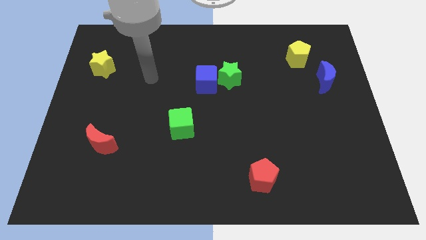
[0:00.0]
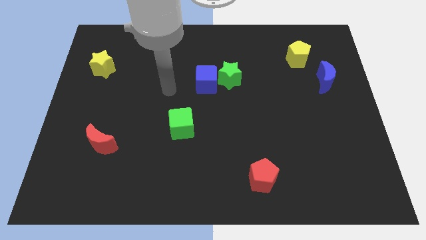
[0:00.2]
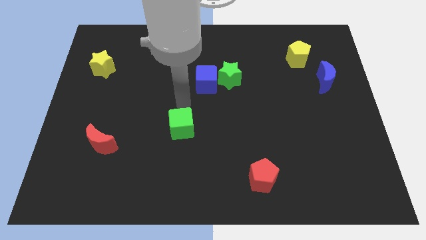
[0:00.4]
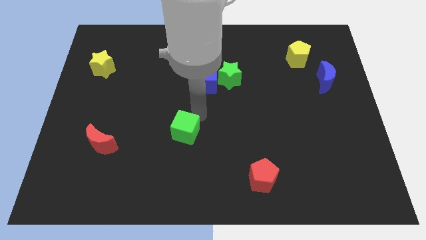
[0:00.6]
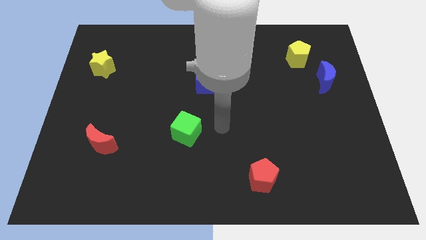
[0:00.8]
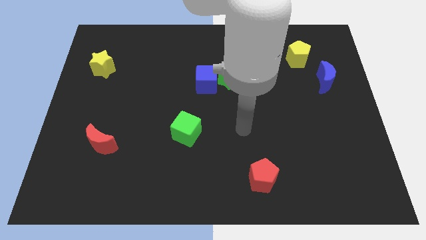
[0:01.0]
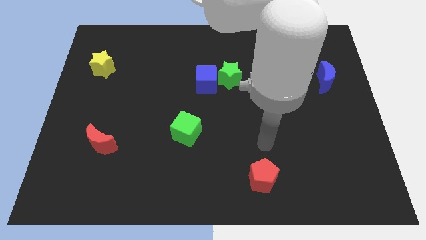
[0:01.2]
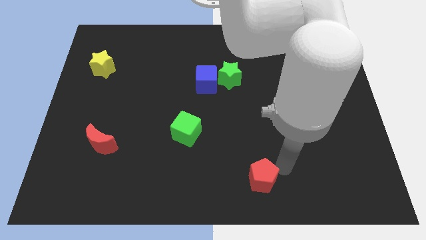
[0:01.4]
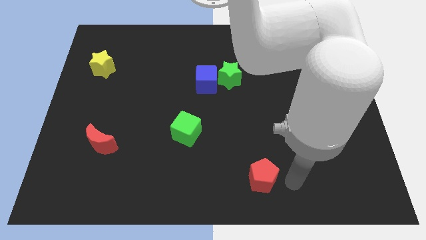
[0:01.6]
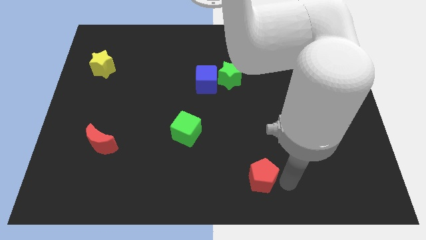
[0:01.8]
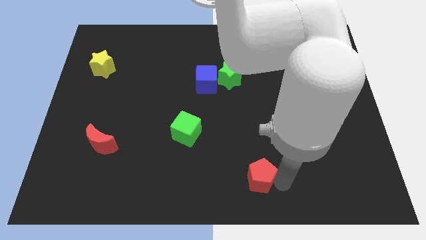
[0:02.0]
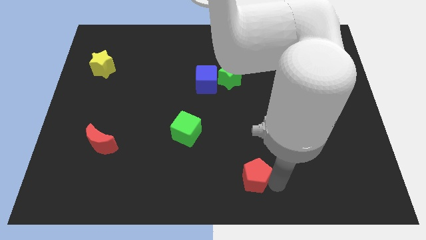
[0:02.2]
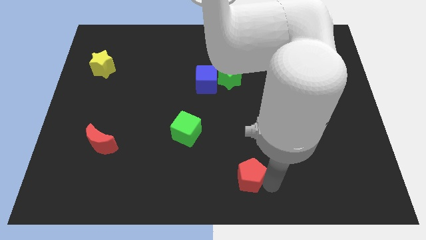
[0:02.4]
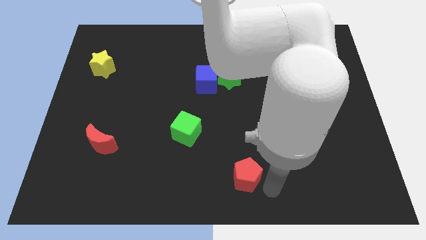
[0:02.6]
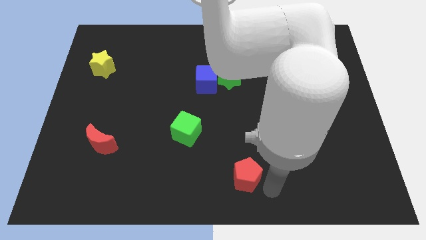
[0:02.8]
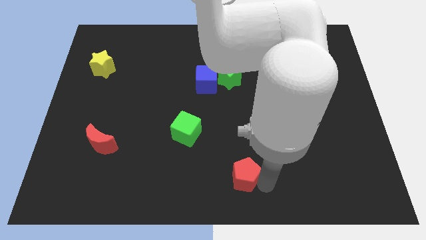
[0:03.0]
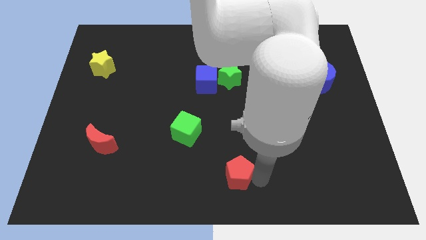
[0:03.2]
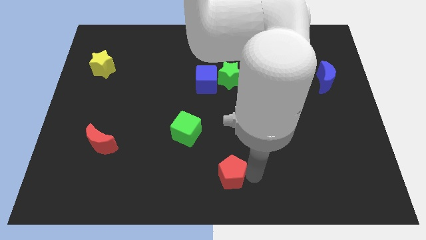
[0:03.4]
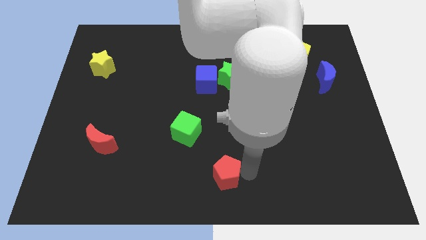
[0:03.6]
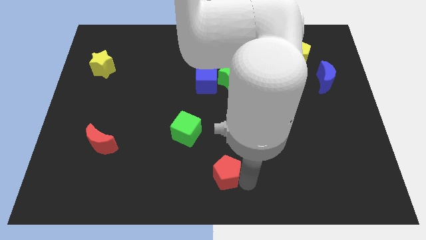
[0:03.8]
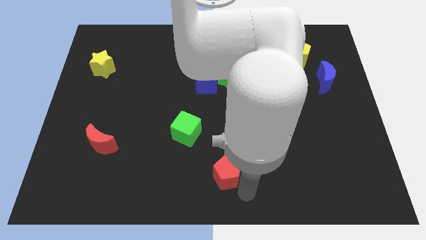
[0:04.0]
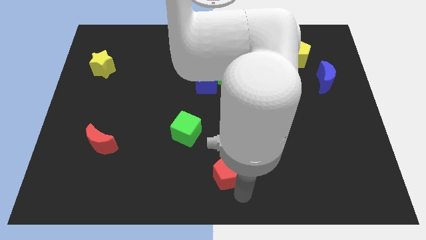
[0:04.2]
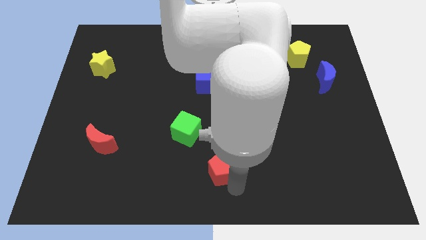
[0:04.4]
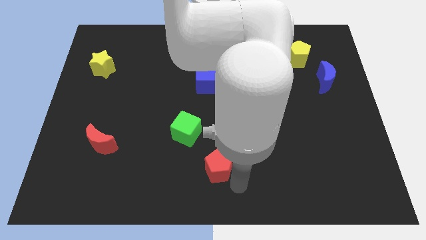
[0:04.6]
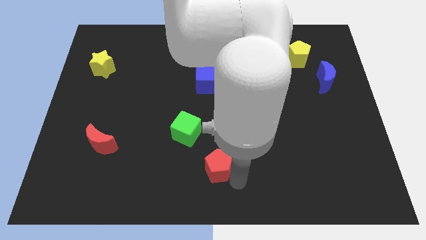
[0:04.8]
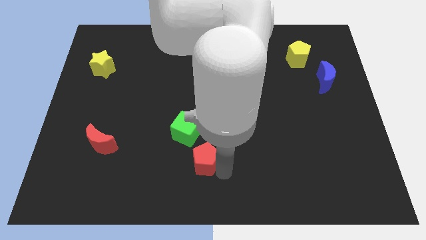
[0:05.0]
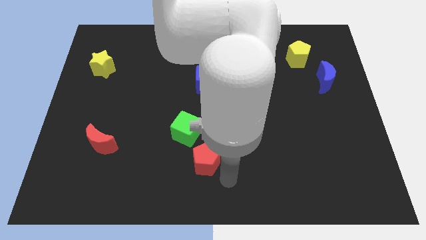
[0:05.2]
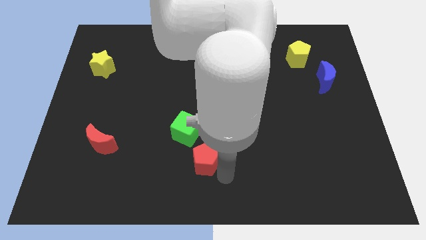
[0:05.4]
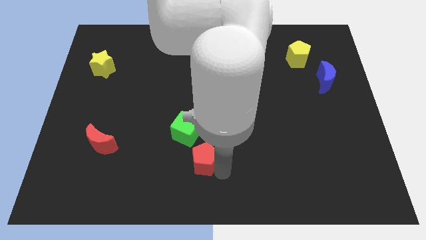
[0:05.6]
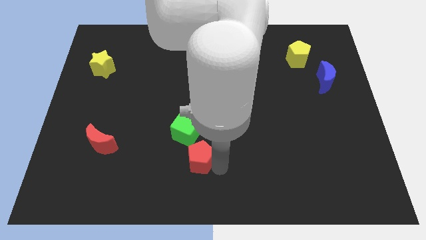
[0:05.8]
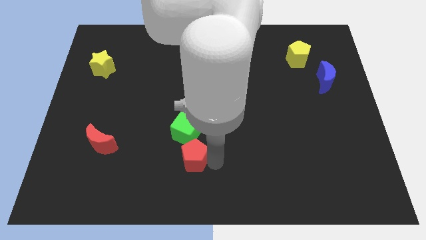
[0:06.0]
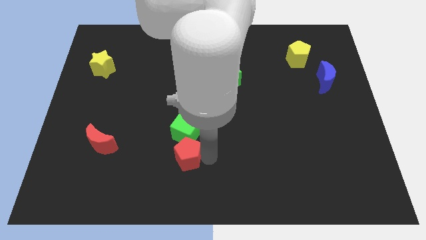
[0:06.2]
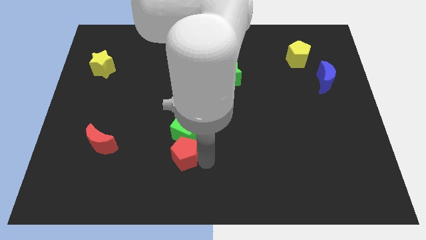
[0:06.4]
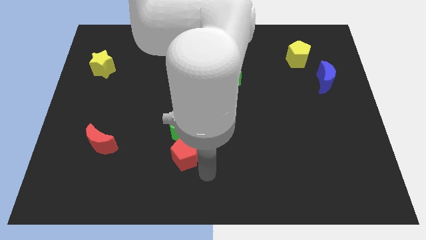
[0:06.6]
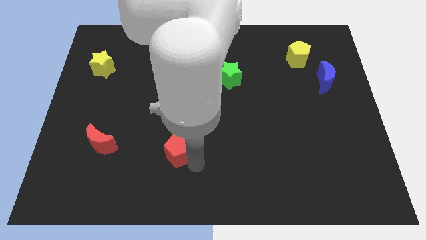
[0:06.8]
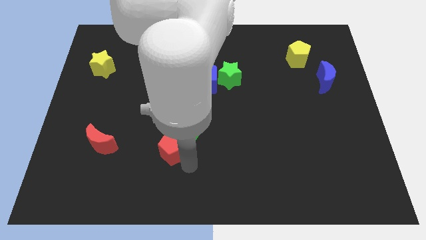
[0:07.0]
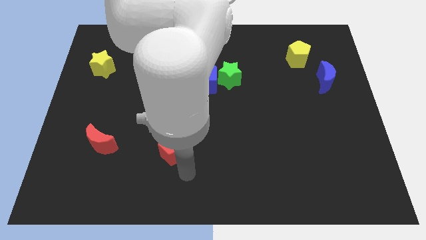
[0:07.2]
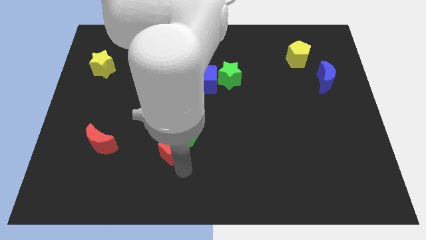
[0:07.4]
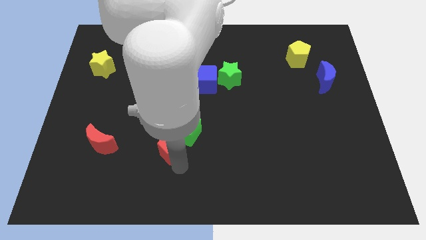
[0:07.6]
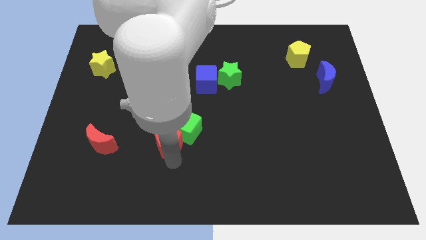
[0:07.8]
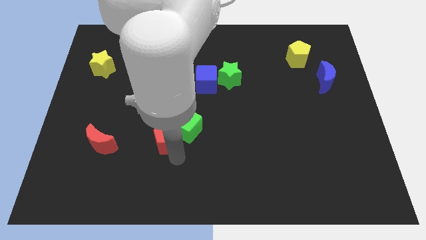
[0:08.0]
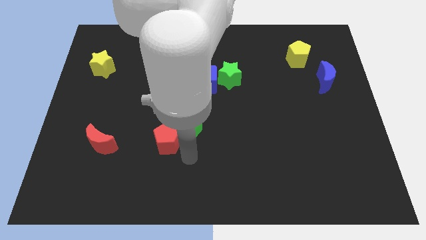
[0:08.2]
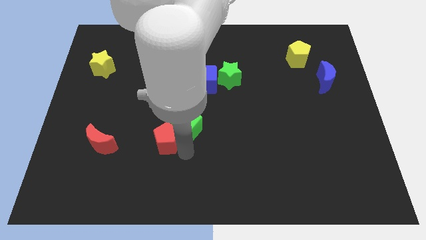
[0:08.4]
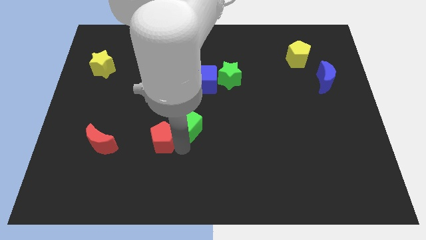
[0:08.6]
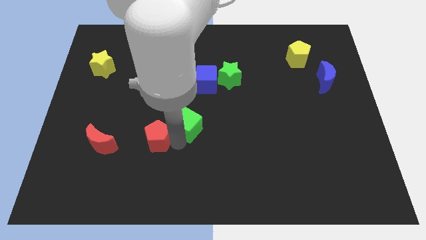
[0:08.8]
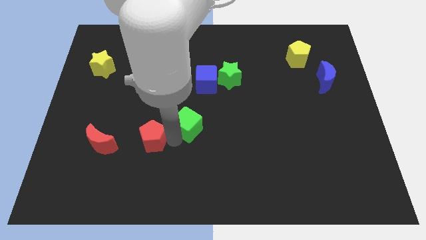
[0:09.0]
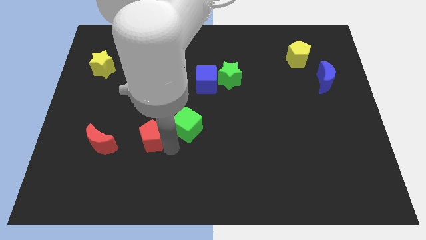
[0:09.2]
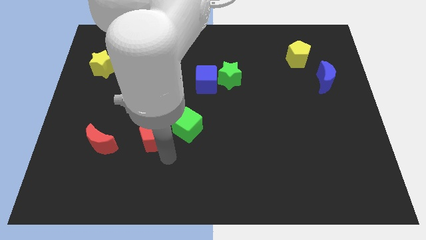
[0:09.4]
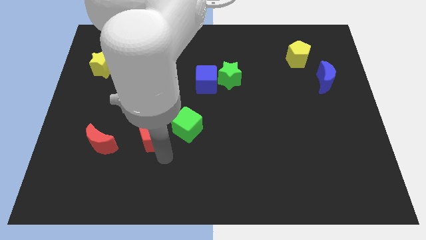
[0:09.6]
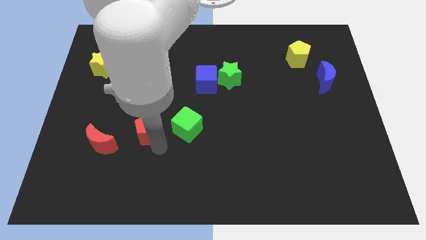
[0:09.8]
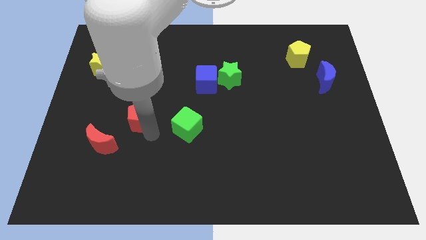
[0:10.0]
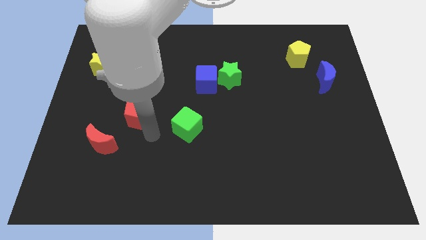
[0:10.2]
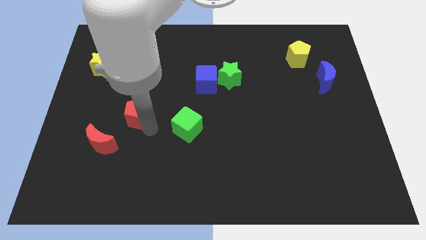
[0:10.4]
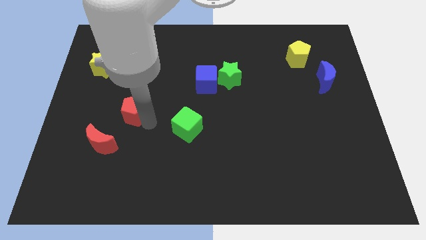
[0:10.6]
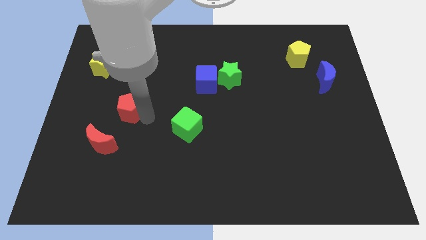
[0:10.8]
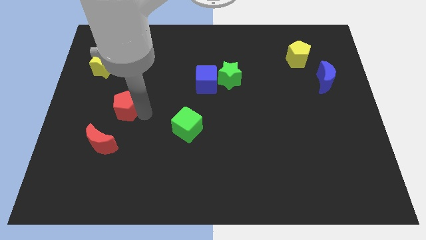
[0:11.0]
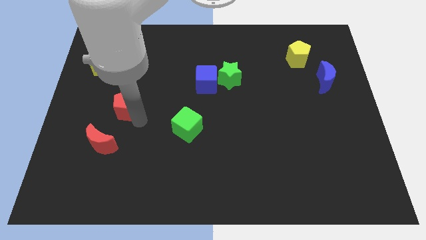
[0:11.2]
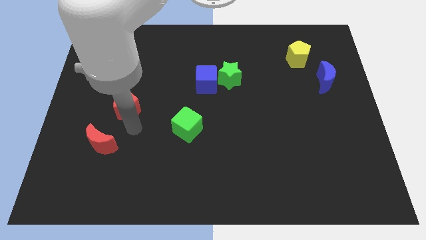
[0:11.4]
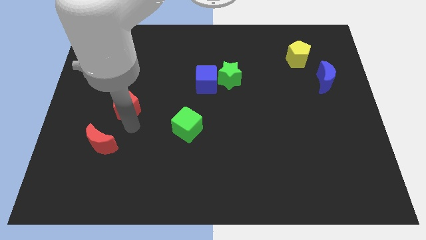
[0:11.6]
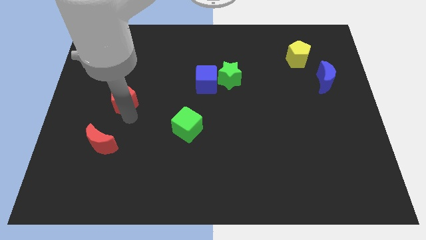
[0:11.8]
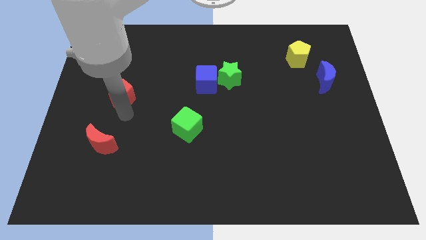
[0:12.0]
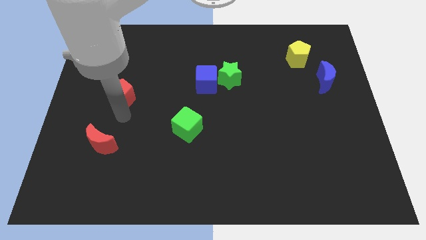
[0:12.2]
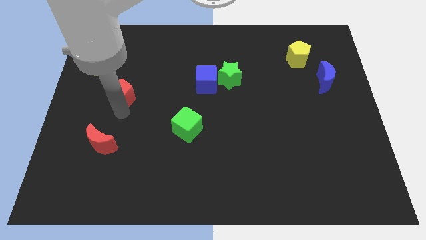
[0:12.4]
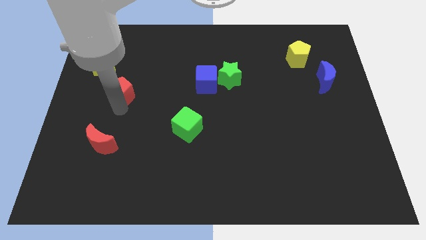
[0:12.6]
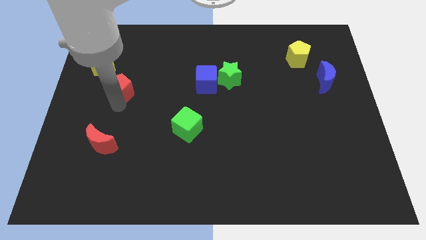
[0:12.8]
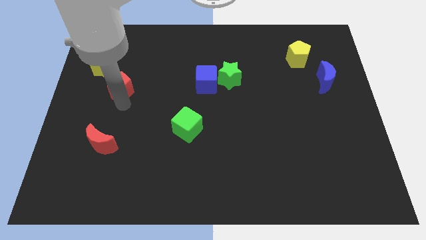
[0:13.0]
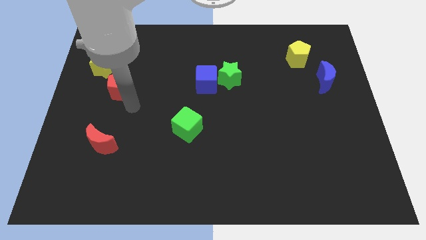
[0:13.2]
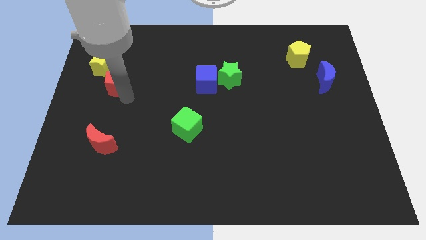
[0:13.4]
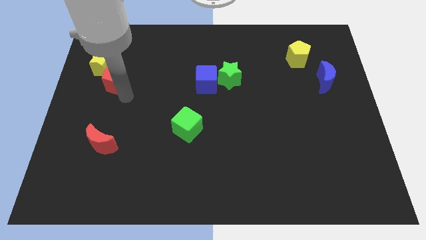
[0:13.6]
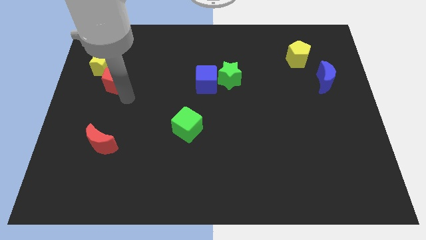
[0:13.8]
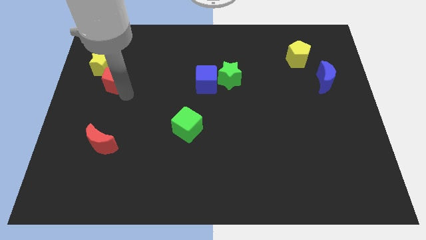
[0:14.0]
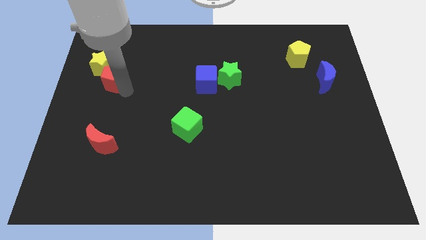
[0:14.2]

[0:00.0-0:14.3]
slide the red pentagon close to the yellow star
